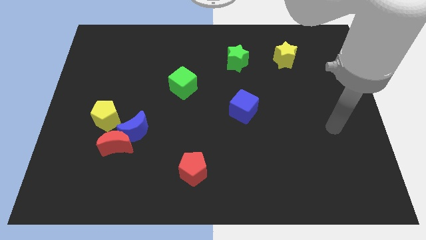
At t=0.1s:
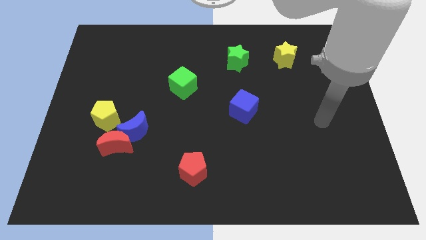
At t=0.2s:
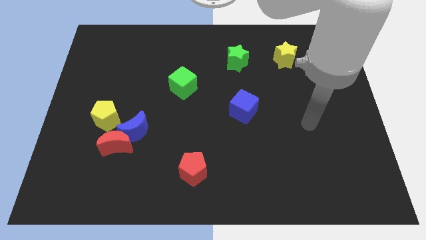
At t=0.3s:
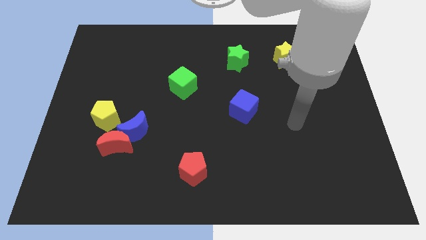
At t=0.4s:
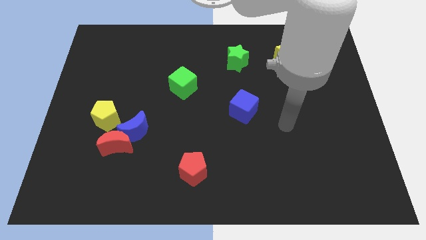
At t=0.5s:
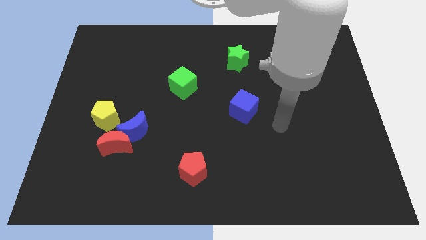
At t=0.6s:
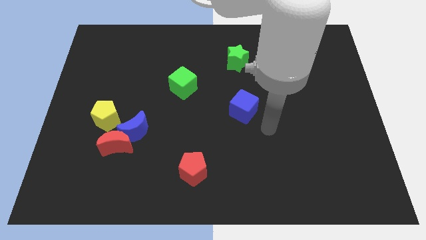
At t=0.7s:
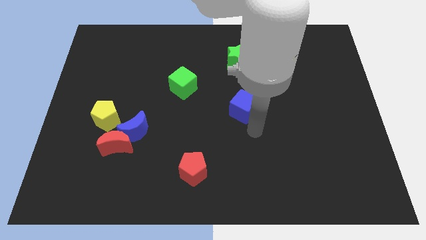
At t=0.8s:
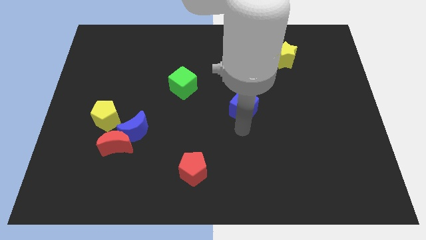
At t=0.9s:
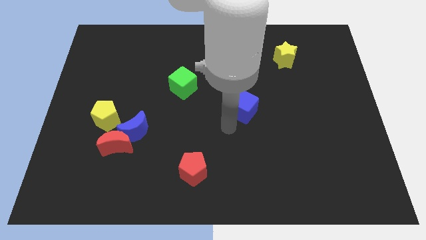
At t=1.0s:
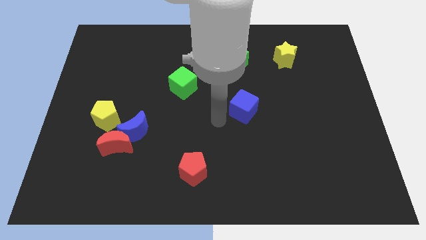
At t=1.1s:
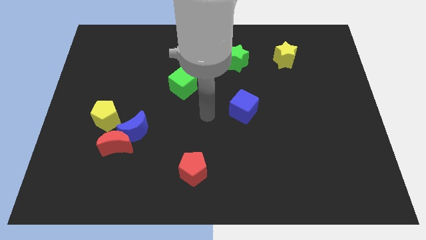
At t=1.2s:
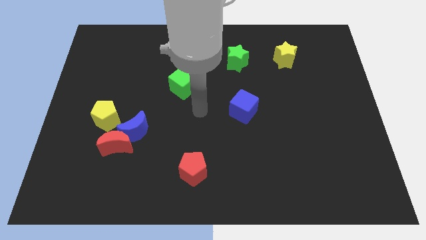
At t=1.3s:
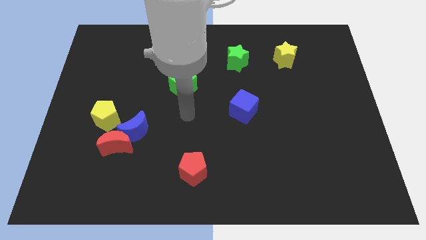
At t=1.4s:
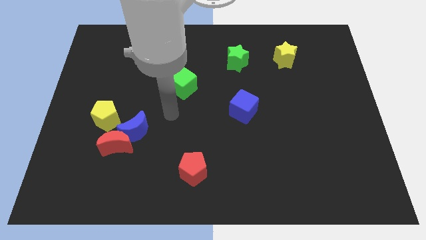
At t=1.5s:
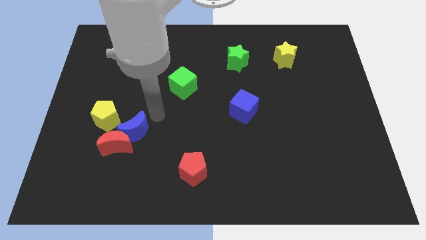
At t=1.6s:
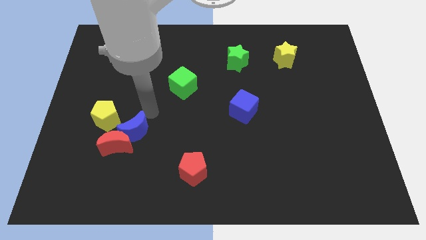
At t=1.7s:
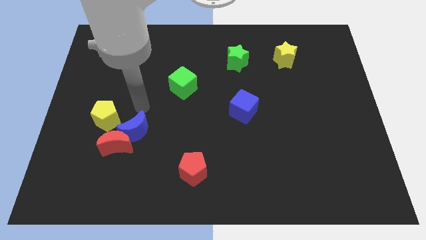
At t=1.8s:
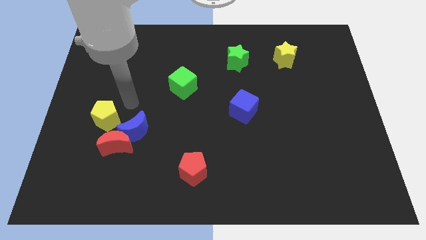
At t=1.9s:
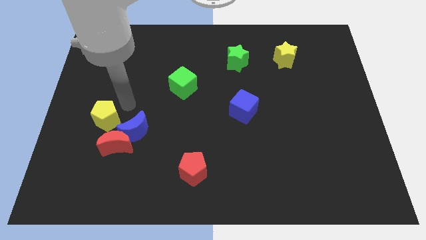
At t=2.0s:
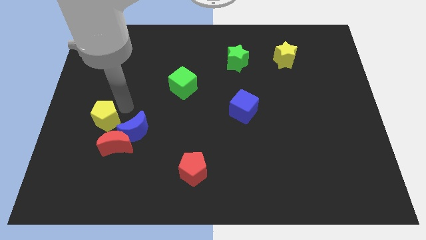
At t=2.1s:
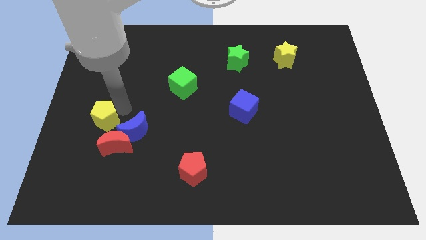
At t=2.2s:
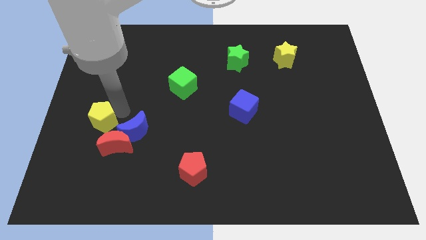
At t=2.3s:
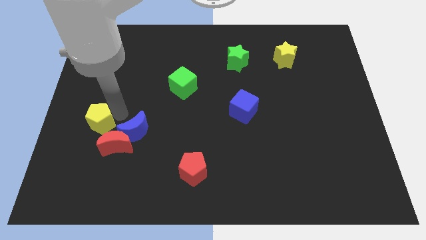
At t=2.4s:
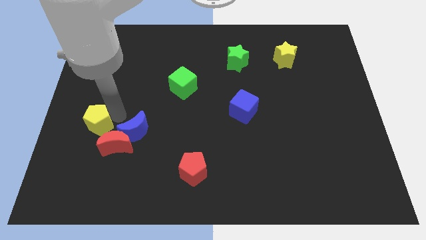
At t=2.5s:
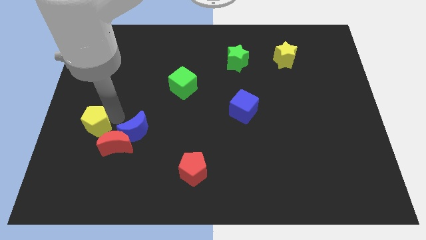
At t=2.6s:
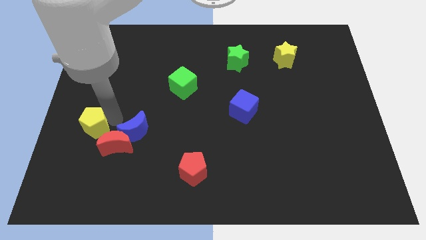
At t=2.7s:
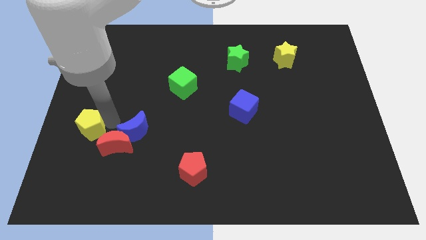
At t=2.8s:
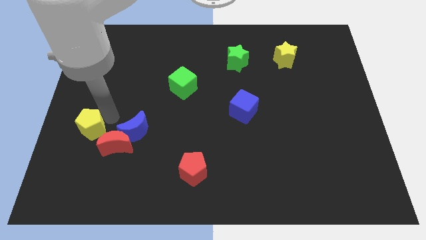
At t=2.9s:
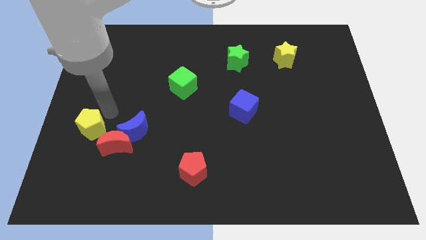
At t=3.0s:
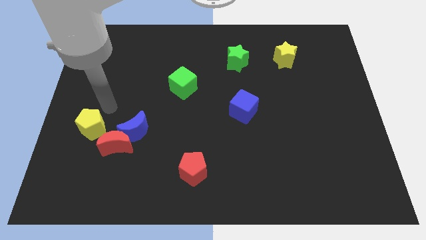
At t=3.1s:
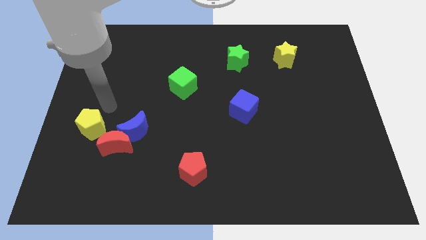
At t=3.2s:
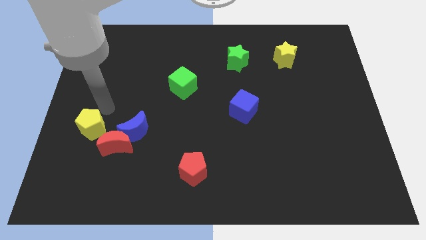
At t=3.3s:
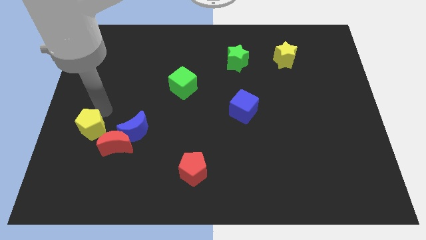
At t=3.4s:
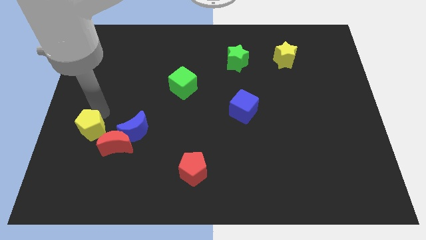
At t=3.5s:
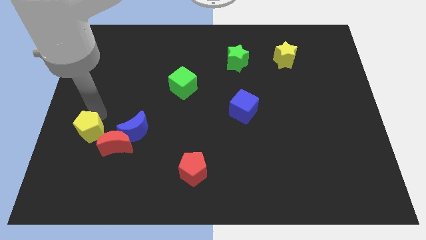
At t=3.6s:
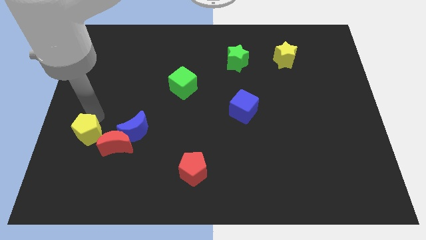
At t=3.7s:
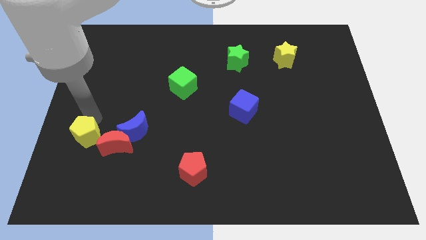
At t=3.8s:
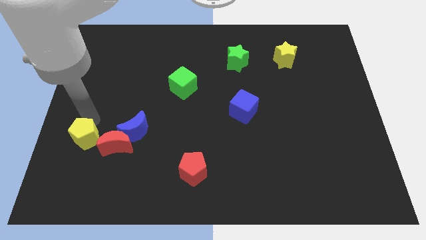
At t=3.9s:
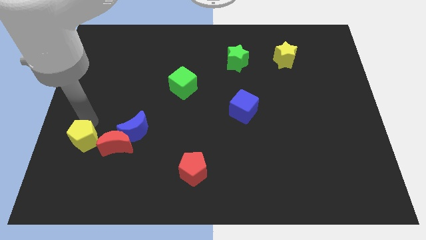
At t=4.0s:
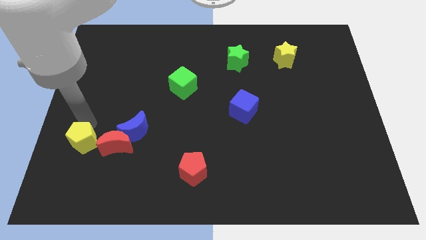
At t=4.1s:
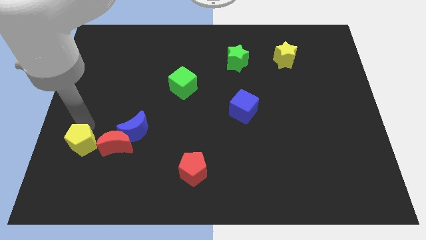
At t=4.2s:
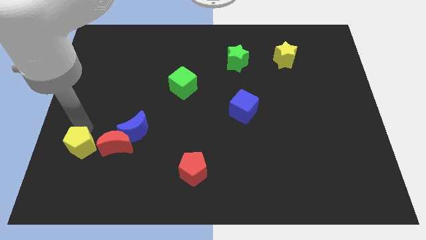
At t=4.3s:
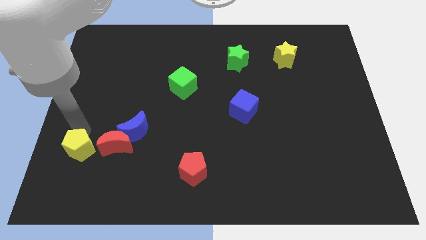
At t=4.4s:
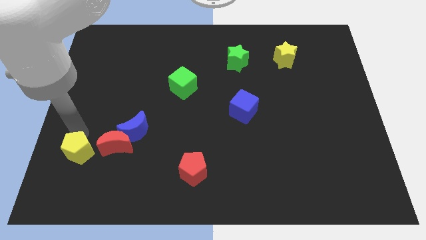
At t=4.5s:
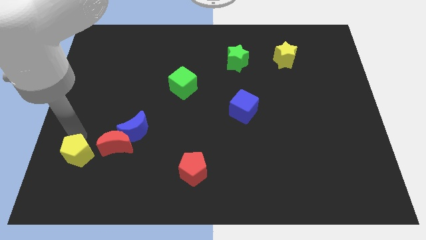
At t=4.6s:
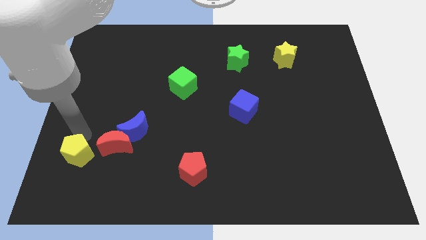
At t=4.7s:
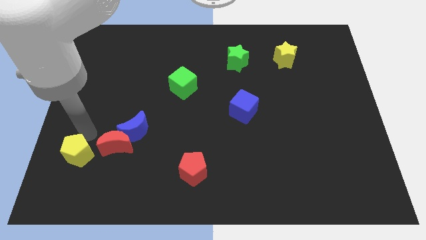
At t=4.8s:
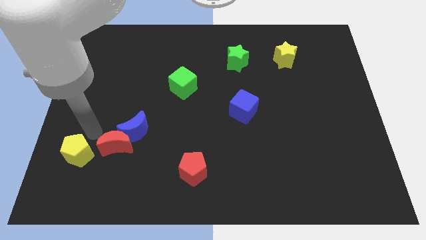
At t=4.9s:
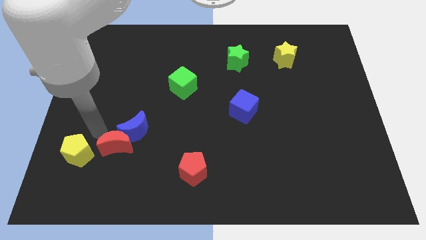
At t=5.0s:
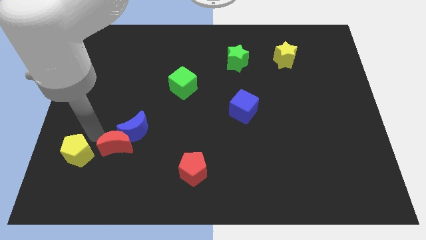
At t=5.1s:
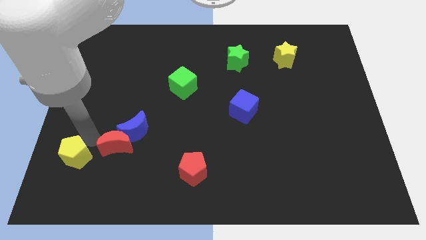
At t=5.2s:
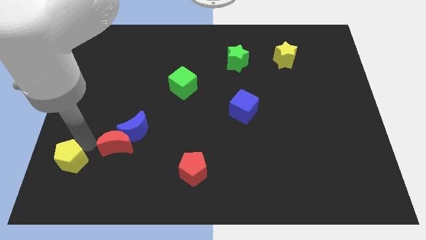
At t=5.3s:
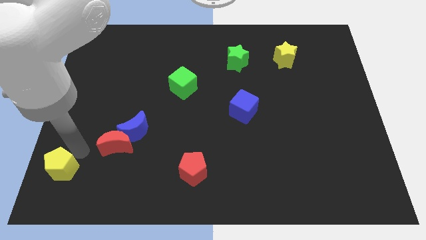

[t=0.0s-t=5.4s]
push the yellow pentagon to the lower left corner

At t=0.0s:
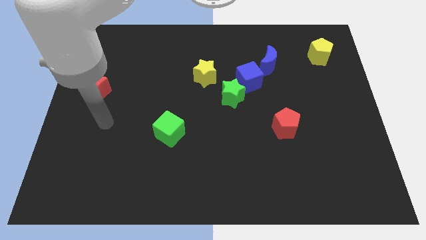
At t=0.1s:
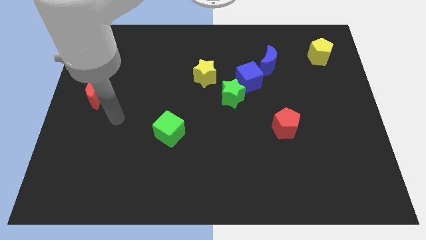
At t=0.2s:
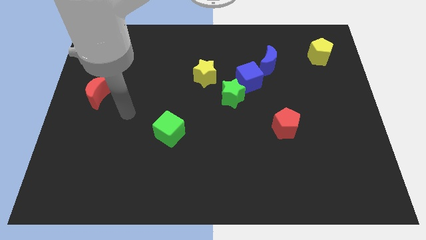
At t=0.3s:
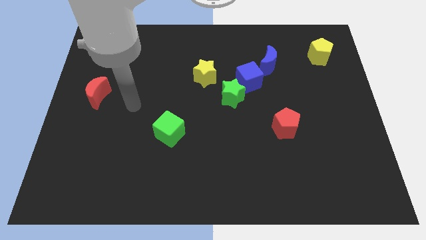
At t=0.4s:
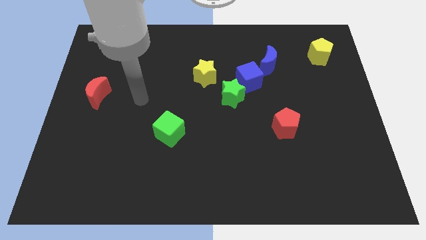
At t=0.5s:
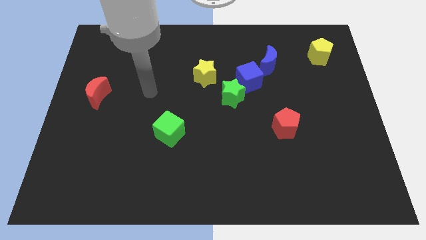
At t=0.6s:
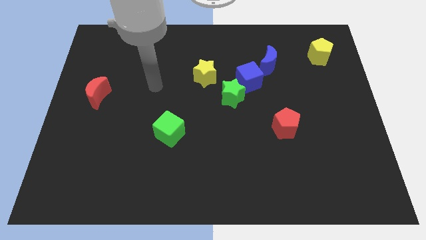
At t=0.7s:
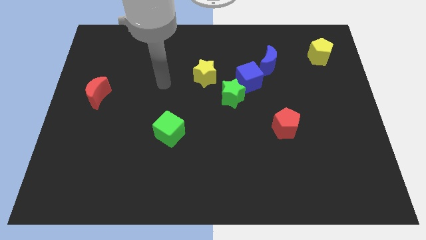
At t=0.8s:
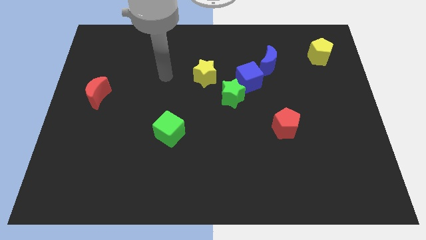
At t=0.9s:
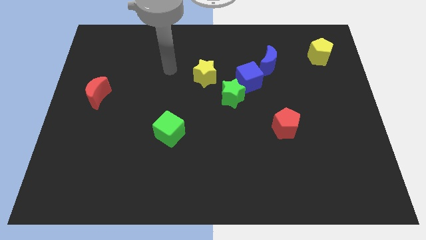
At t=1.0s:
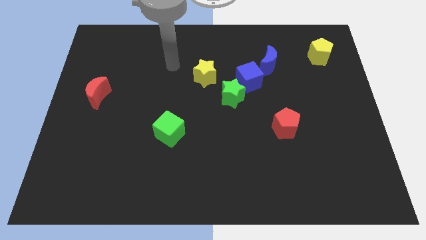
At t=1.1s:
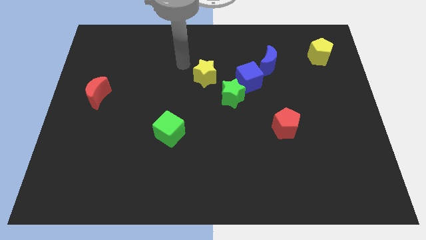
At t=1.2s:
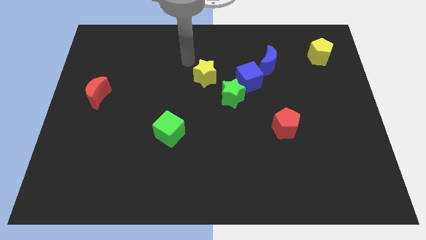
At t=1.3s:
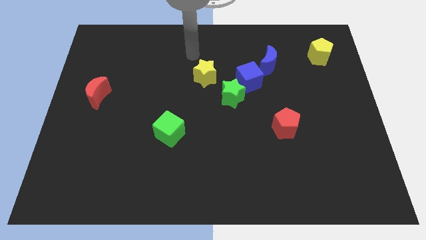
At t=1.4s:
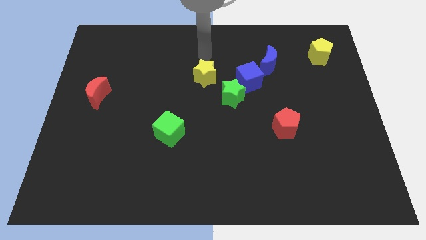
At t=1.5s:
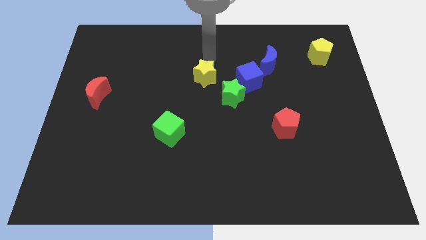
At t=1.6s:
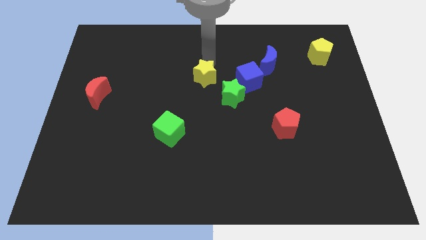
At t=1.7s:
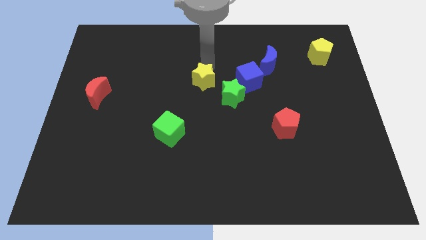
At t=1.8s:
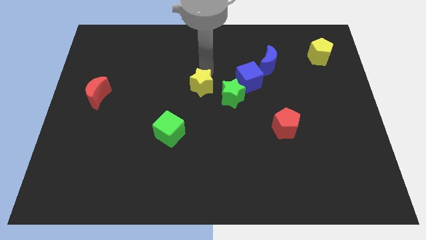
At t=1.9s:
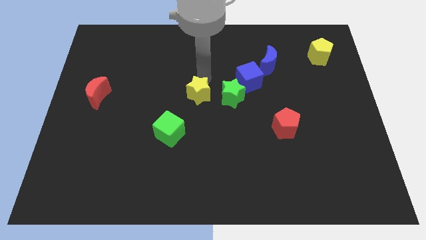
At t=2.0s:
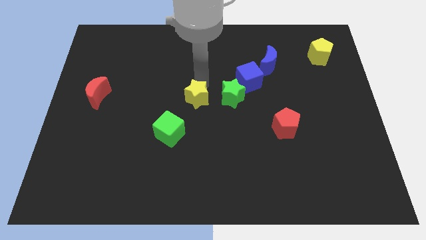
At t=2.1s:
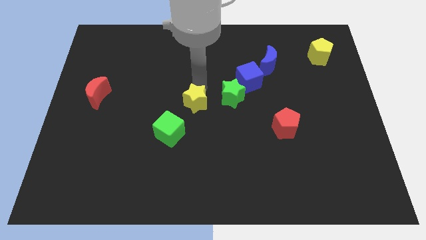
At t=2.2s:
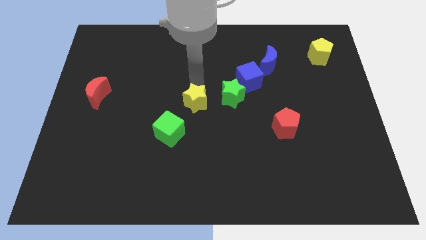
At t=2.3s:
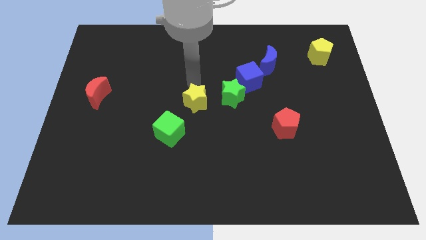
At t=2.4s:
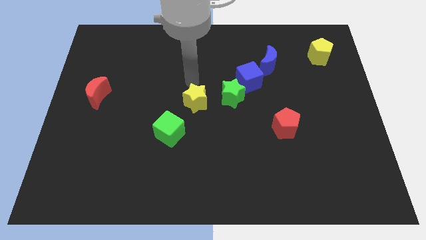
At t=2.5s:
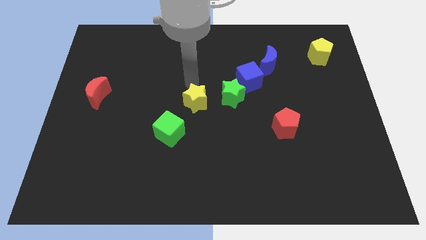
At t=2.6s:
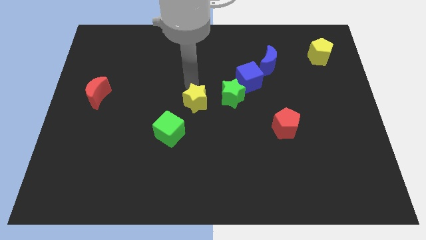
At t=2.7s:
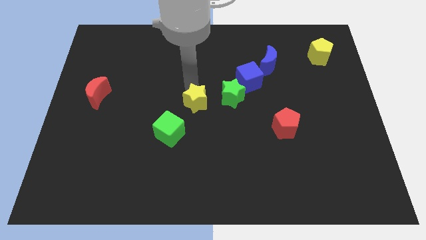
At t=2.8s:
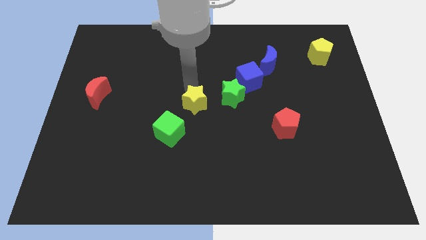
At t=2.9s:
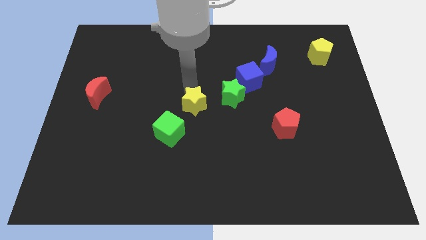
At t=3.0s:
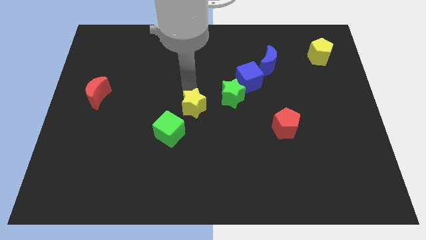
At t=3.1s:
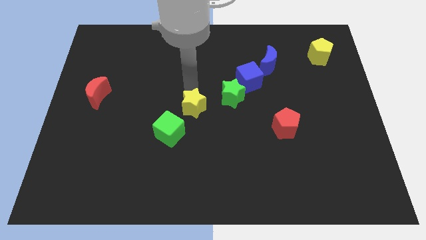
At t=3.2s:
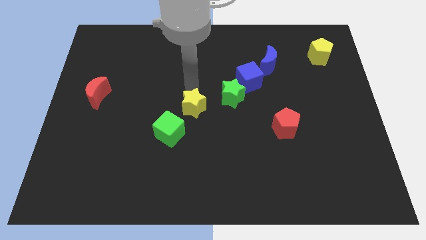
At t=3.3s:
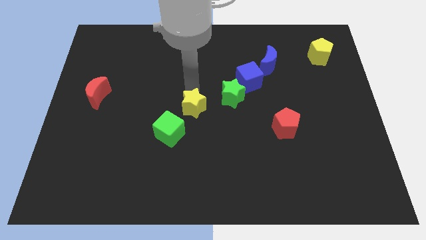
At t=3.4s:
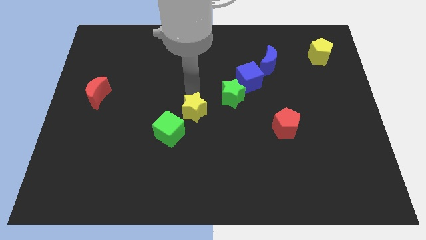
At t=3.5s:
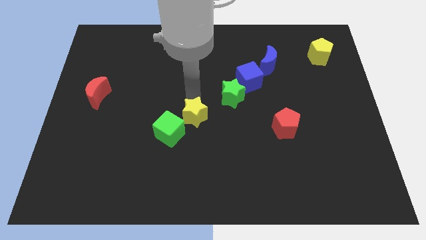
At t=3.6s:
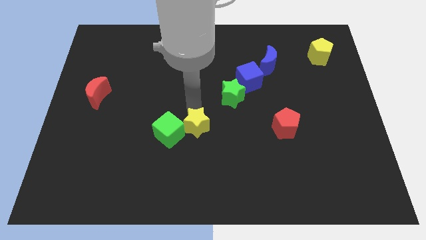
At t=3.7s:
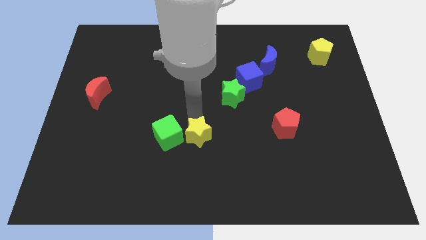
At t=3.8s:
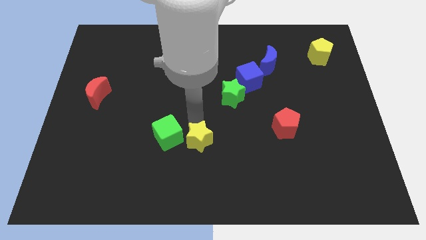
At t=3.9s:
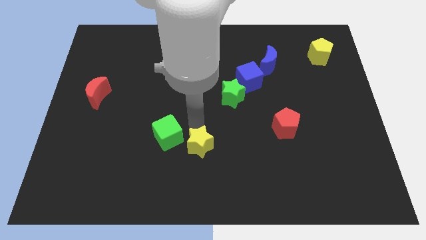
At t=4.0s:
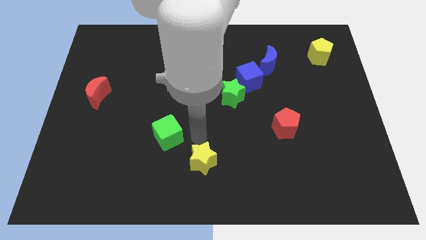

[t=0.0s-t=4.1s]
push the yellow star to the bottom
